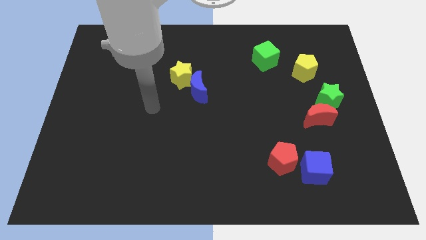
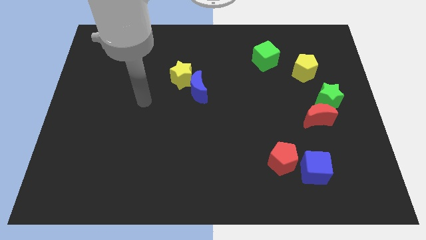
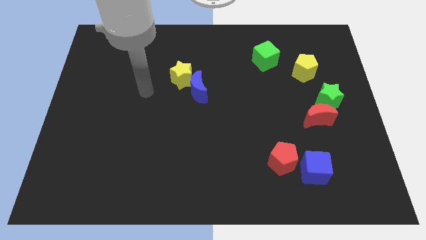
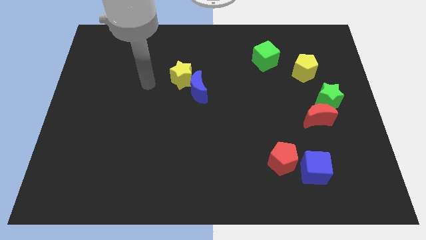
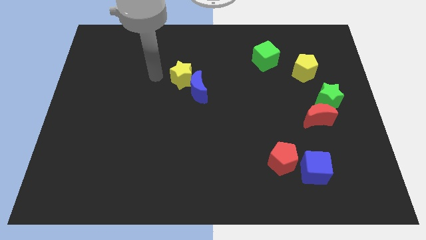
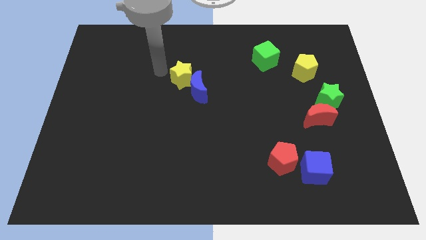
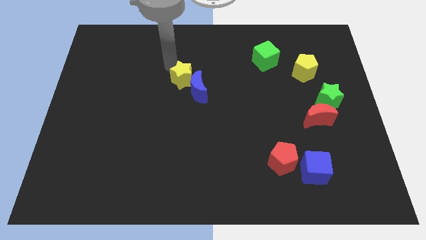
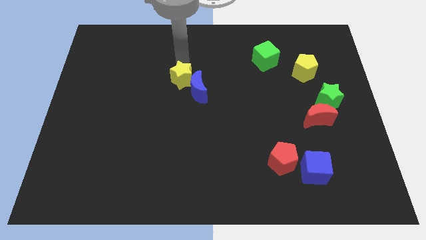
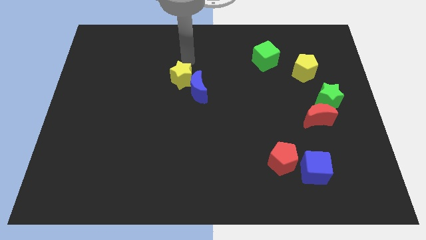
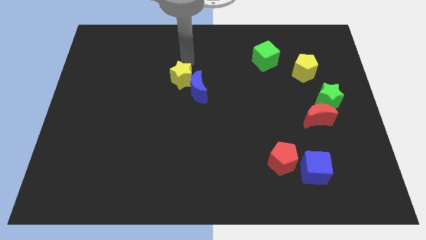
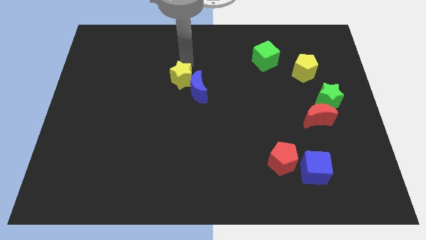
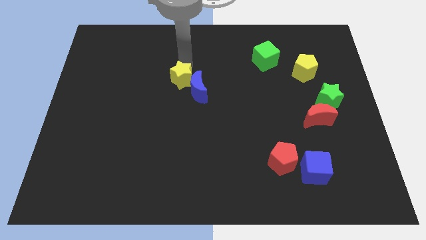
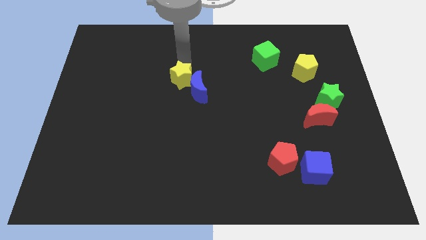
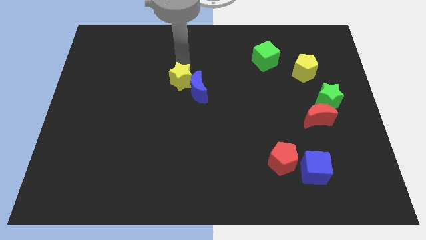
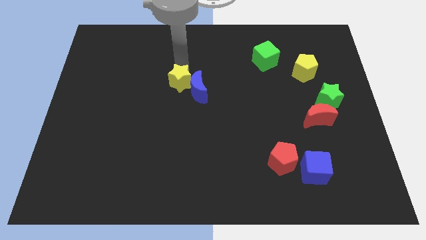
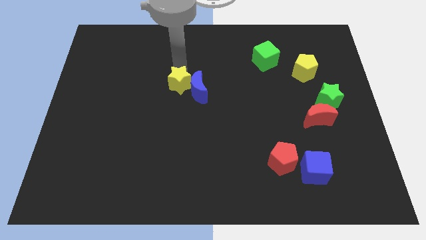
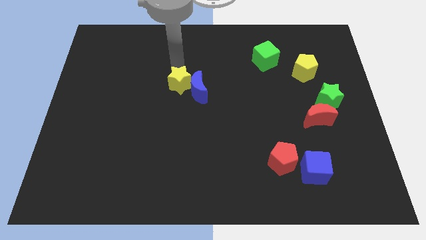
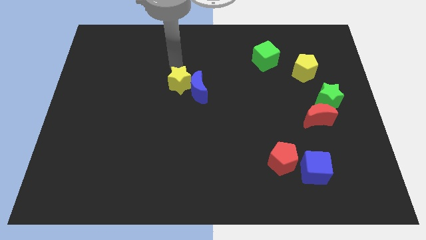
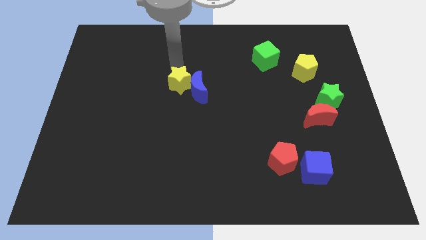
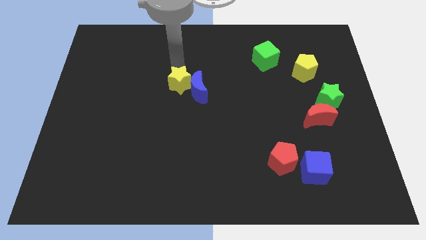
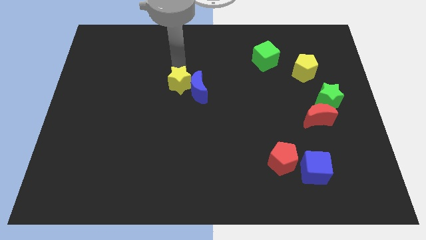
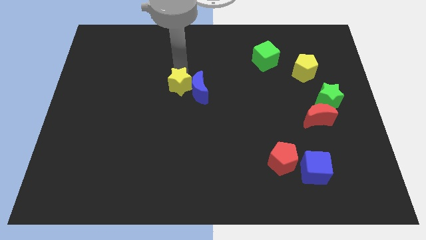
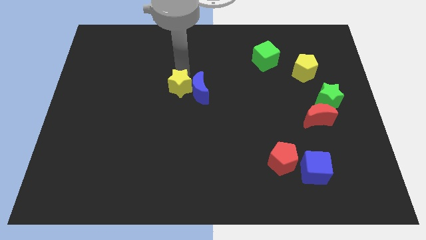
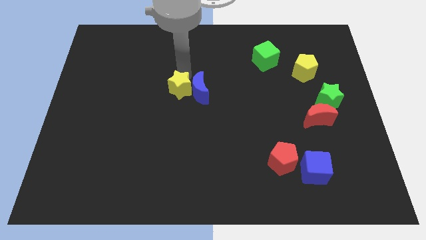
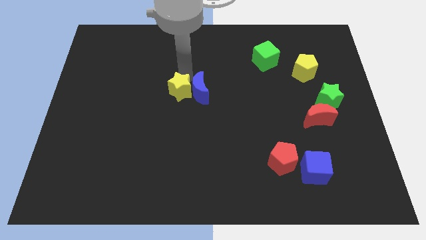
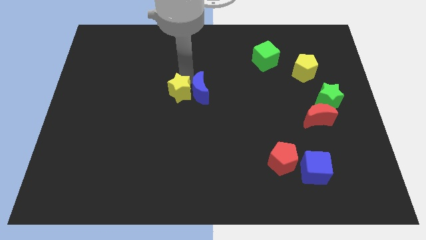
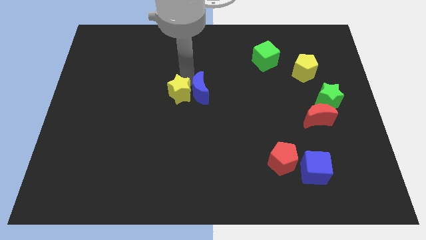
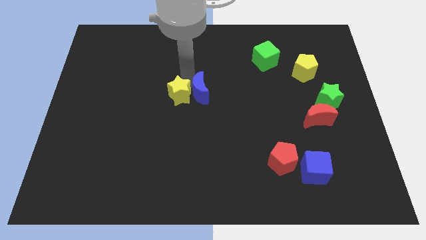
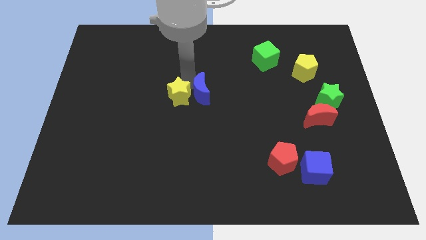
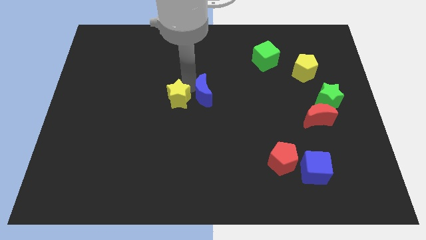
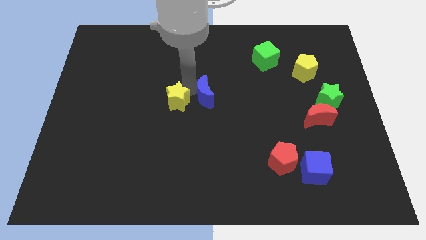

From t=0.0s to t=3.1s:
push the yellow star slightly down

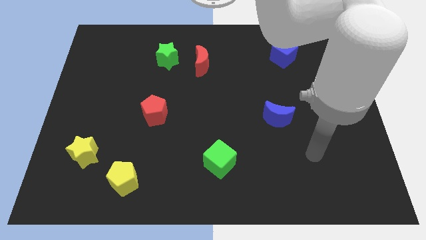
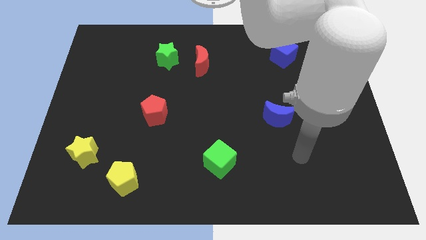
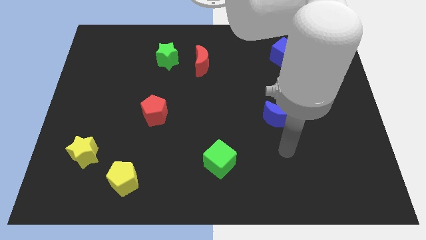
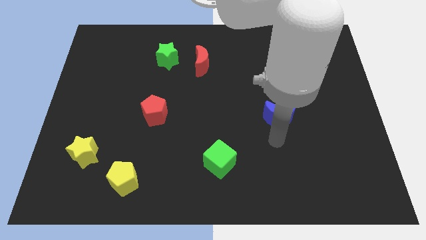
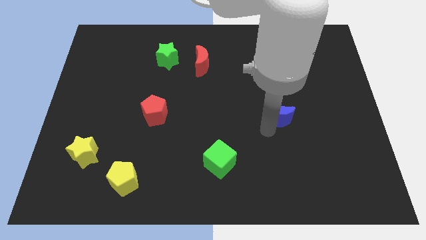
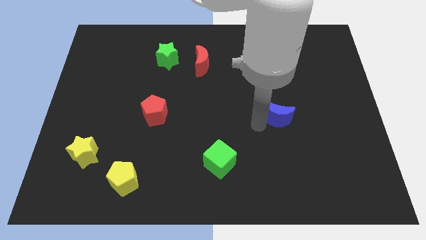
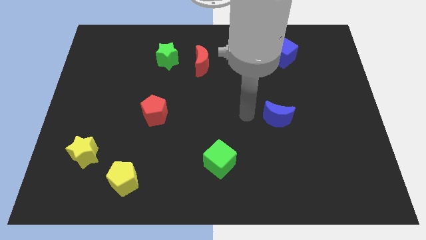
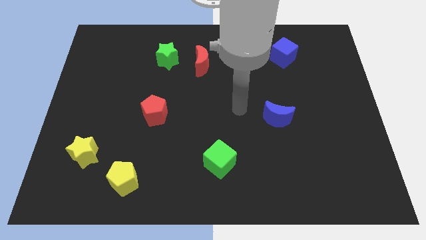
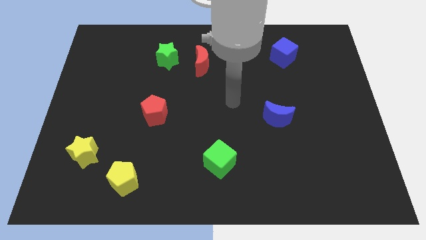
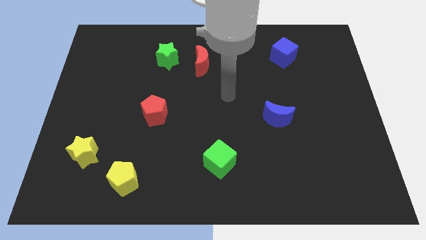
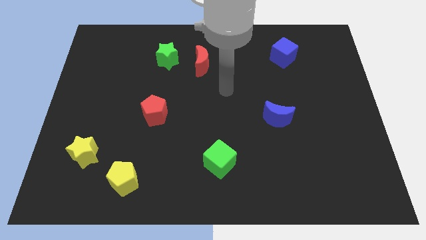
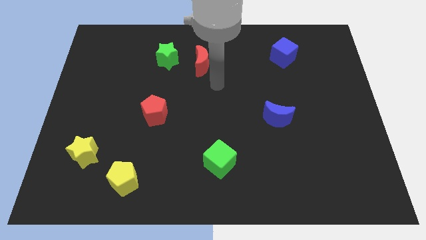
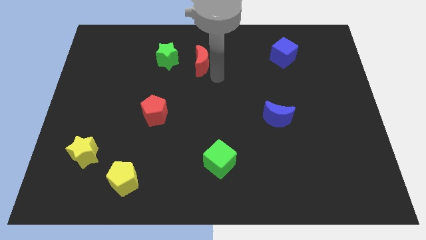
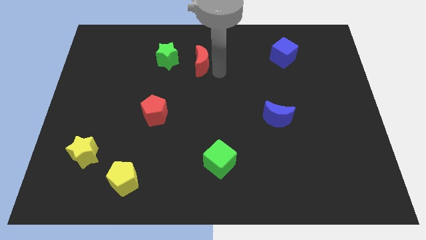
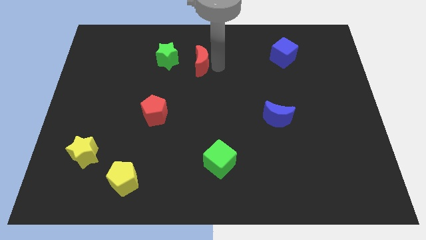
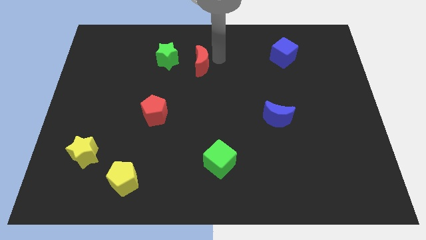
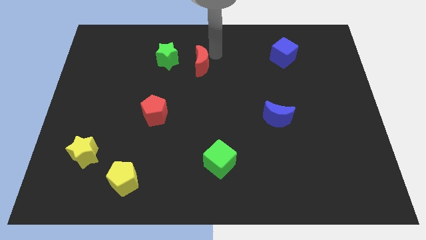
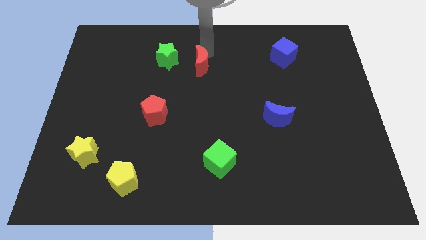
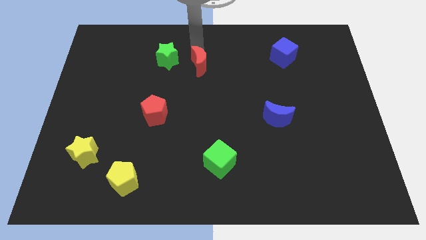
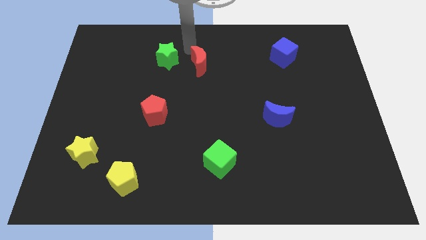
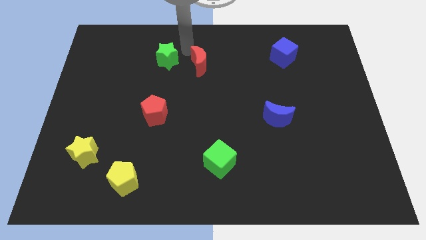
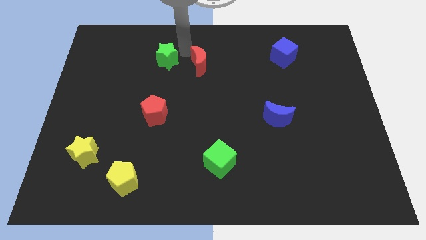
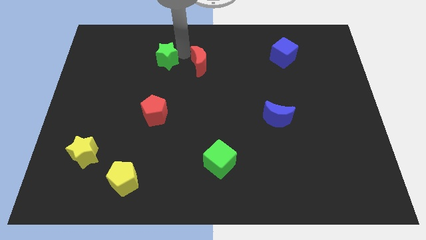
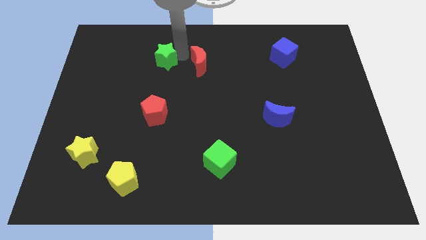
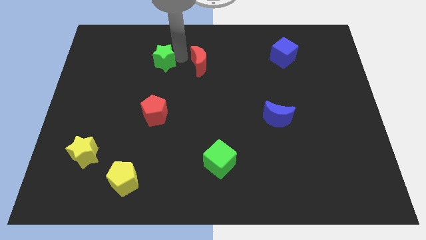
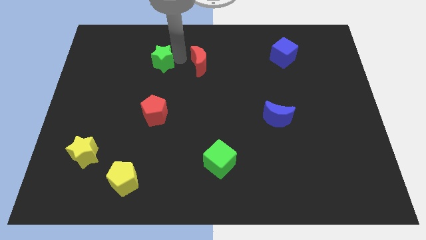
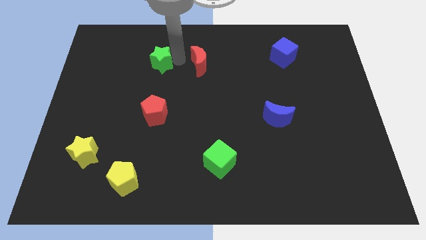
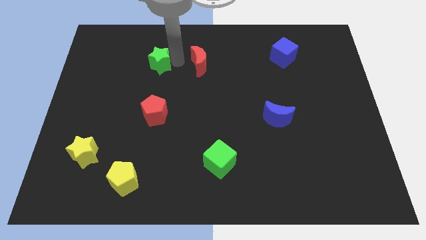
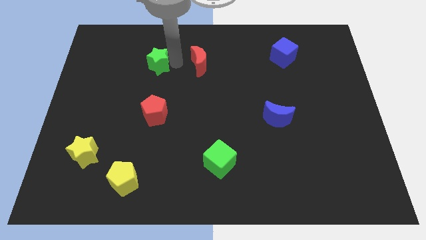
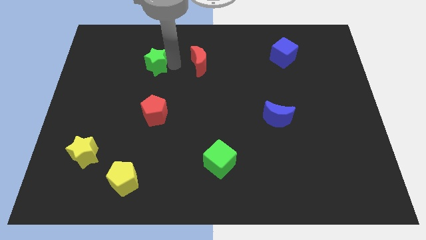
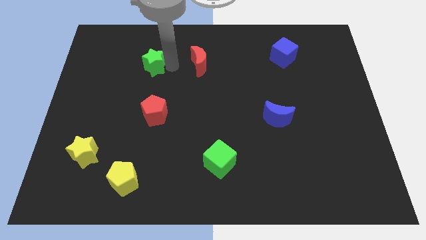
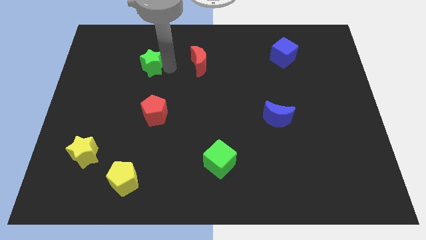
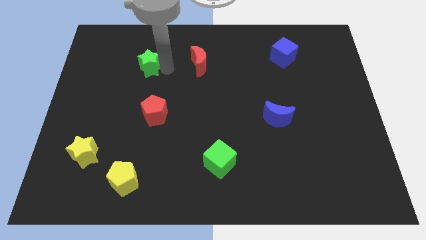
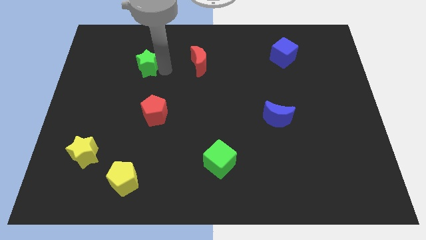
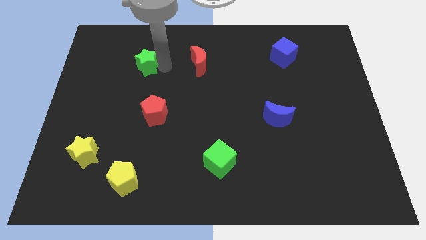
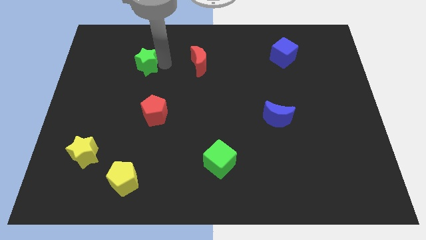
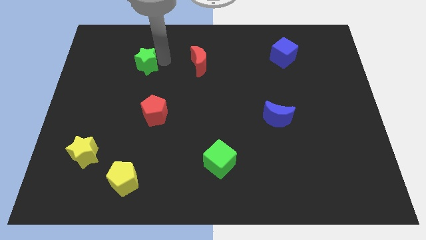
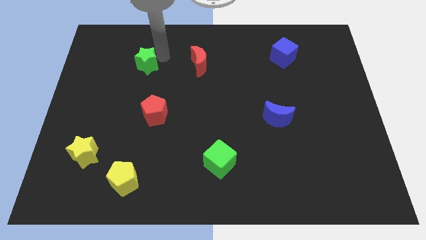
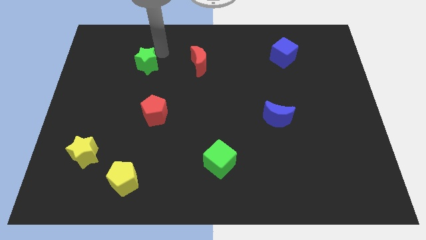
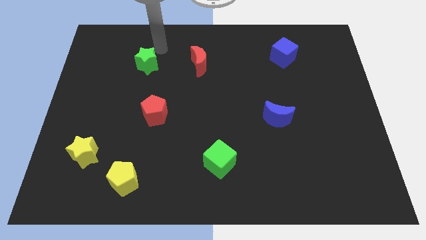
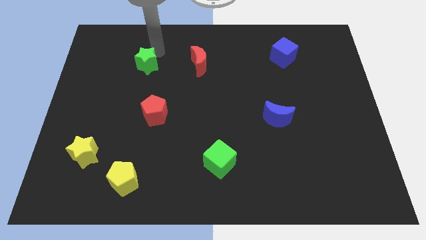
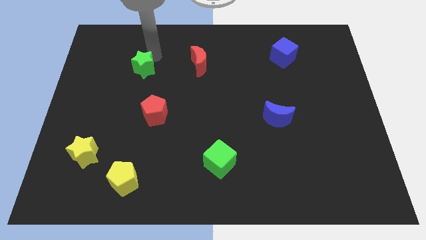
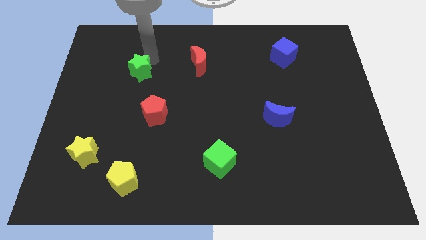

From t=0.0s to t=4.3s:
move the green star downwards and left somewhat

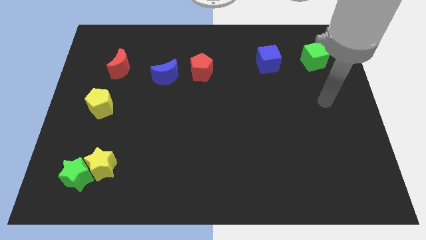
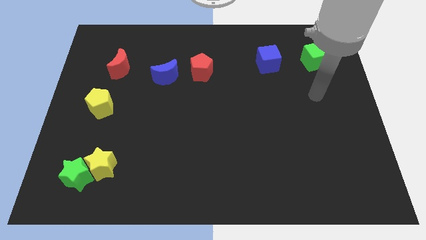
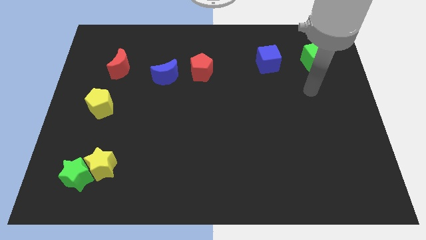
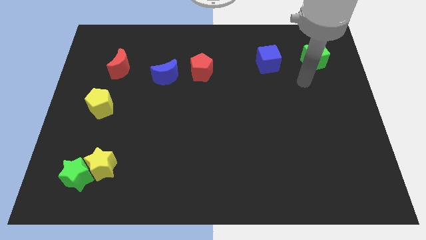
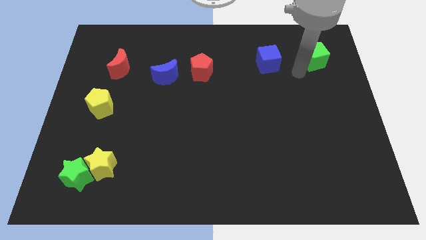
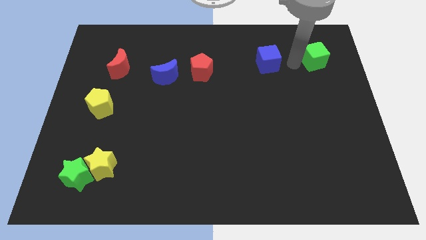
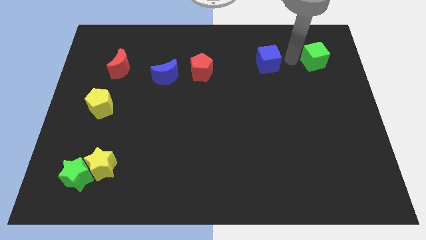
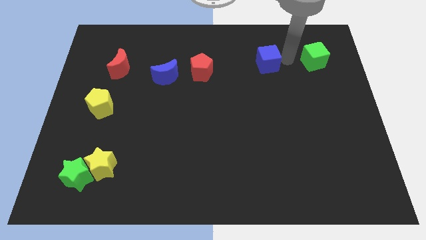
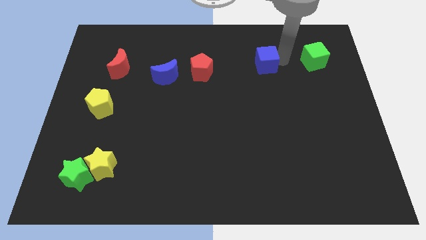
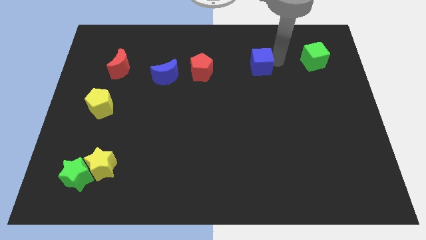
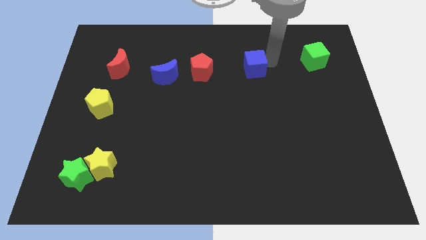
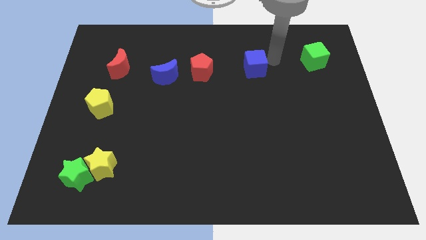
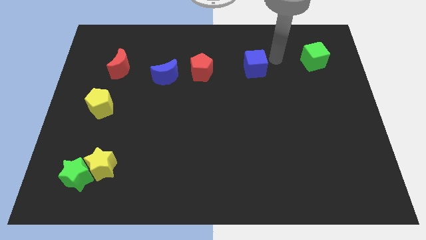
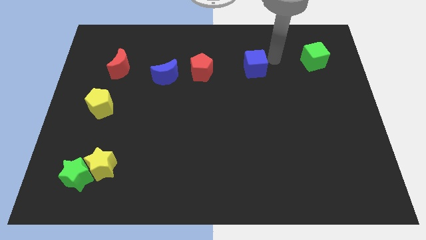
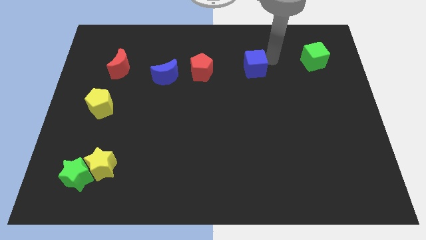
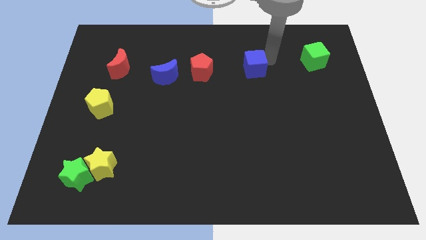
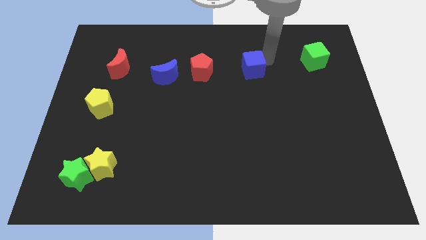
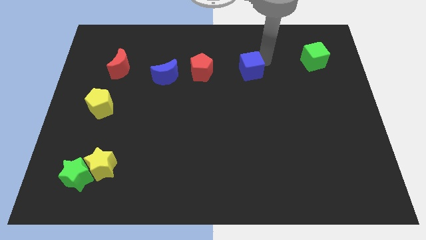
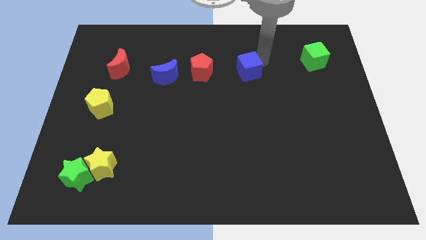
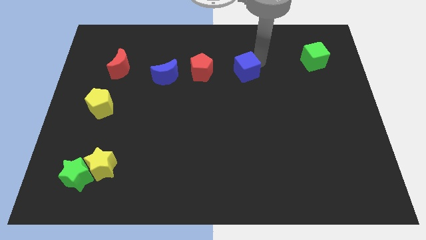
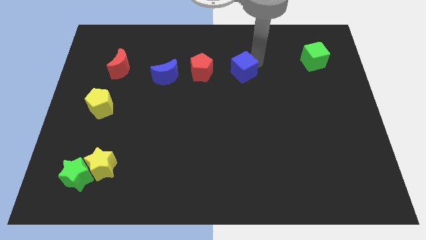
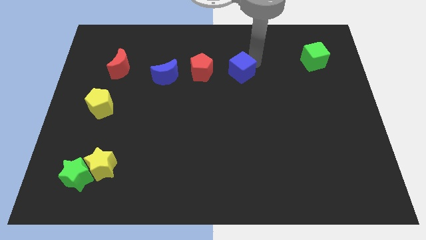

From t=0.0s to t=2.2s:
slightly push the blue cube downwards and then to the left
